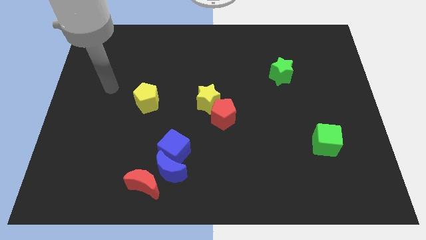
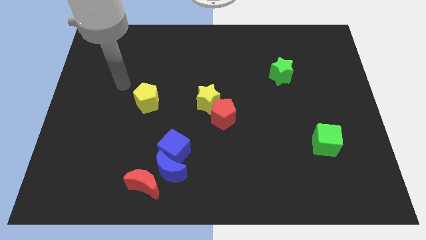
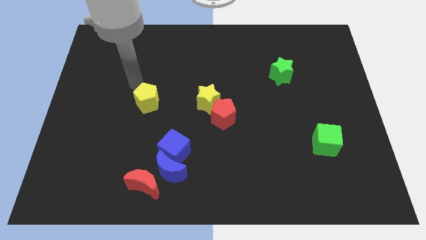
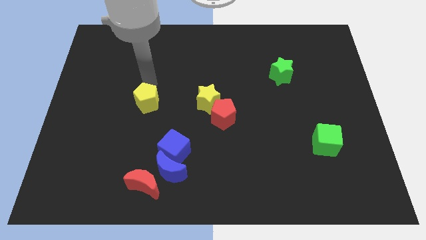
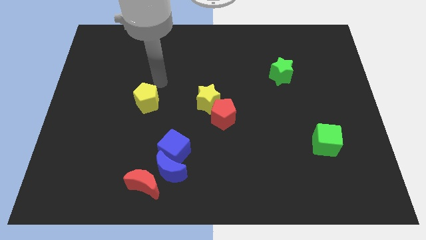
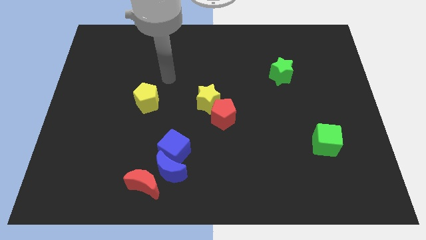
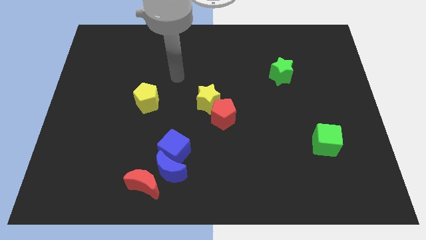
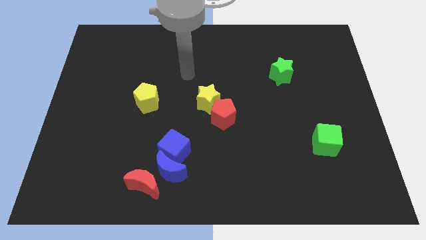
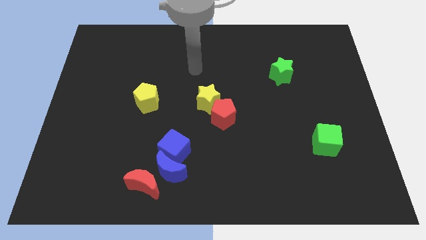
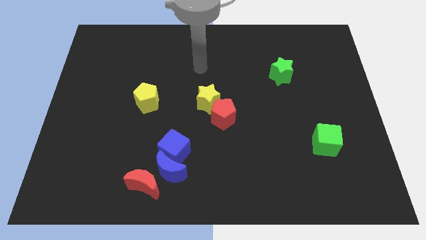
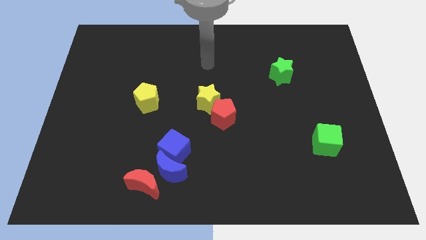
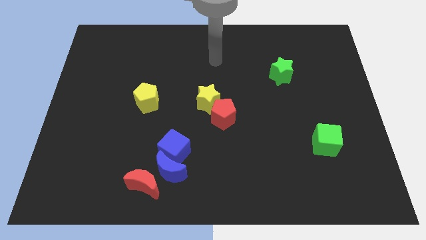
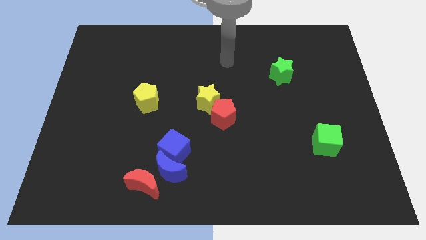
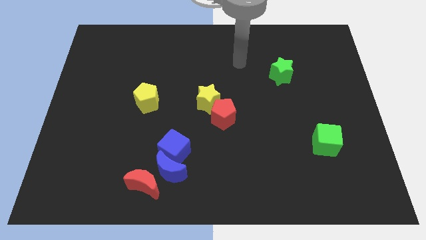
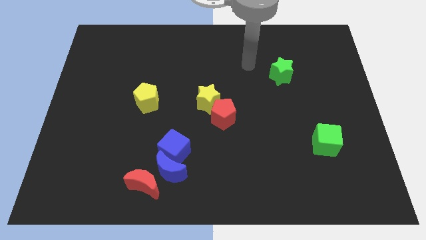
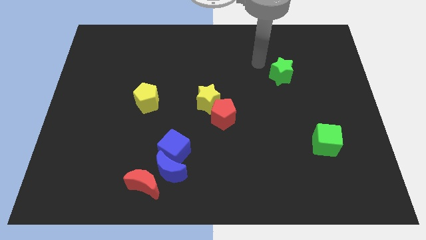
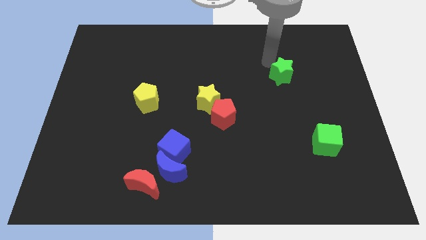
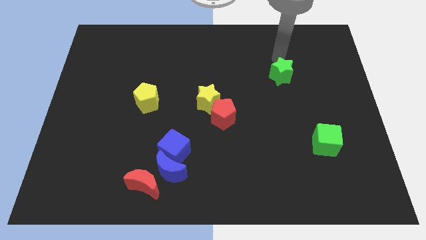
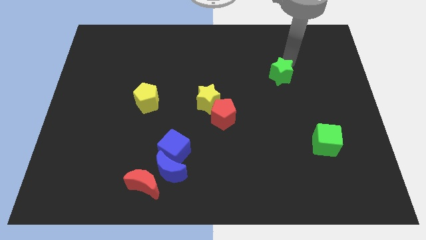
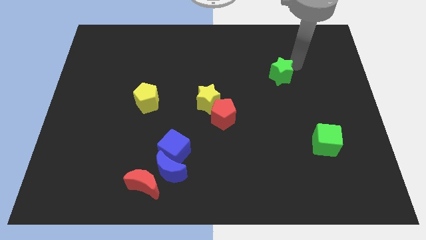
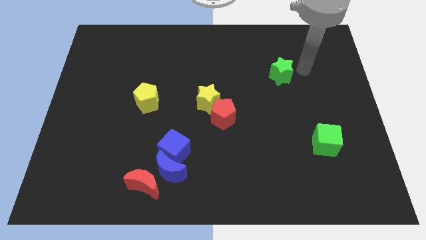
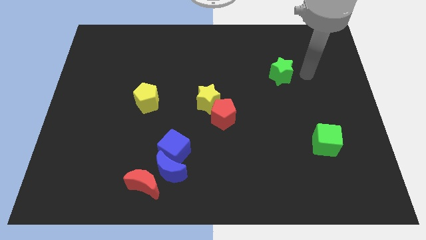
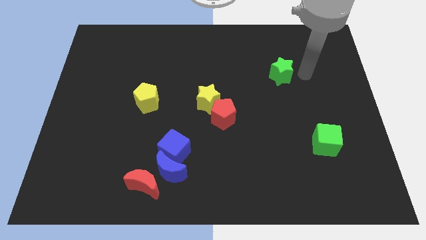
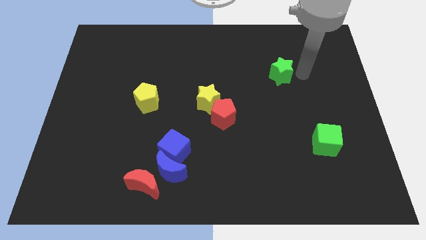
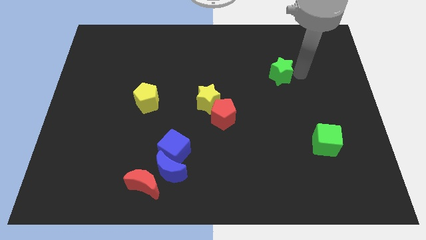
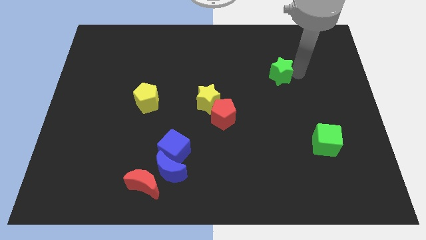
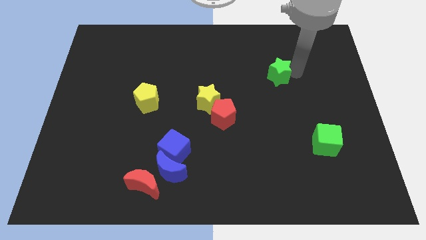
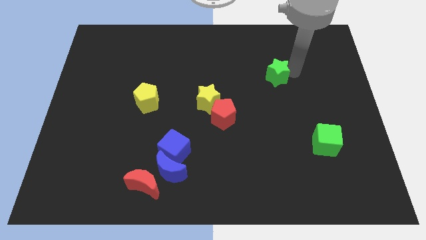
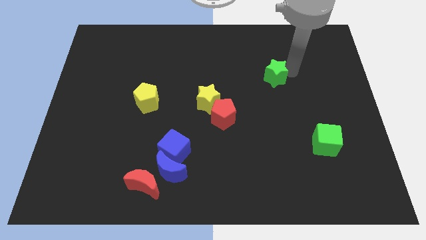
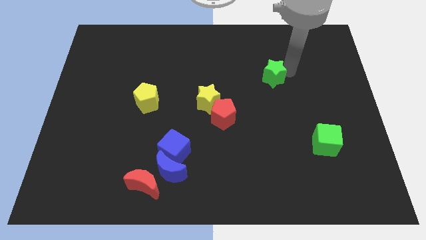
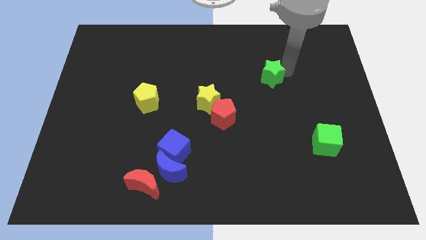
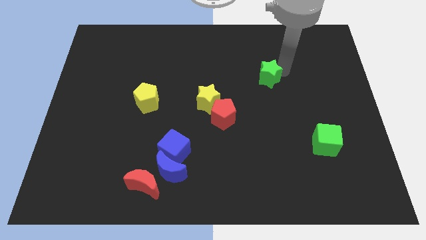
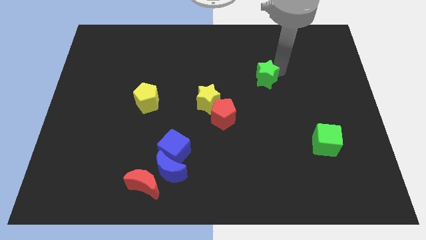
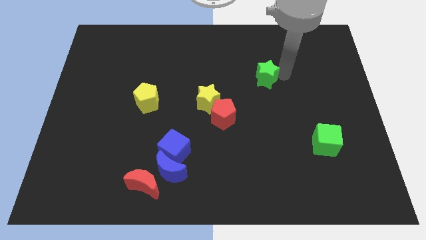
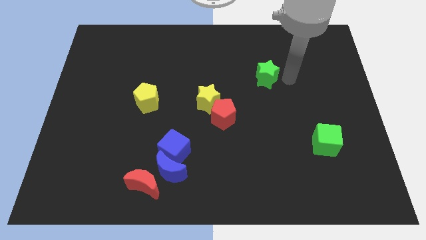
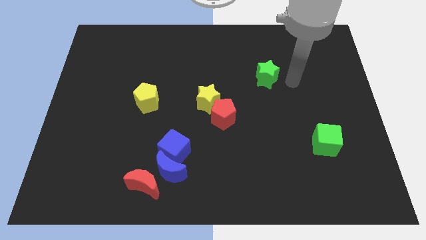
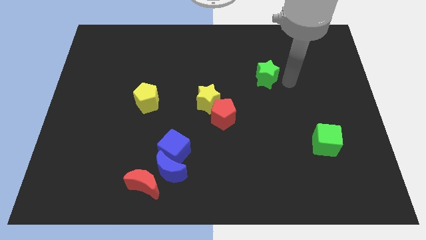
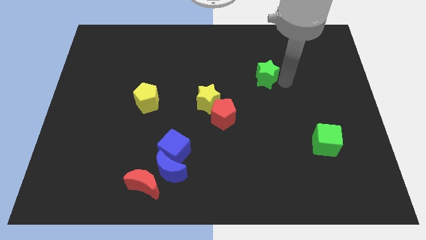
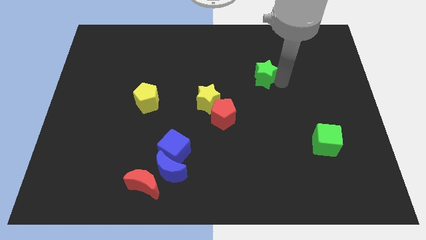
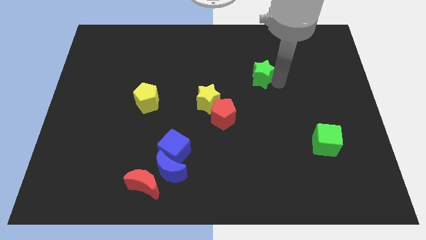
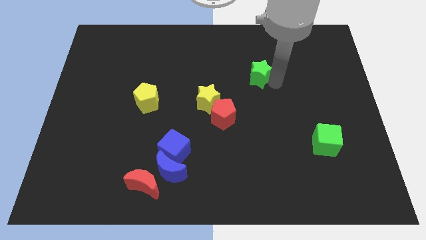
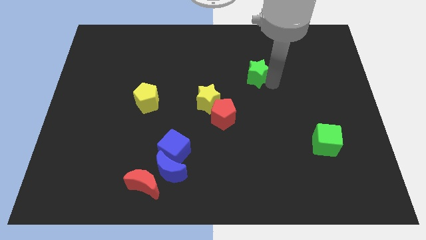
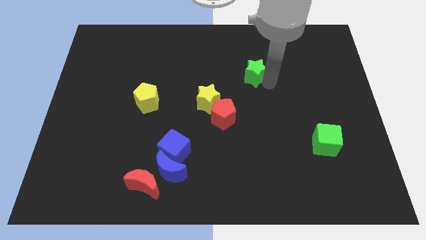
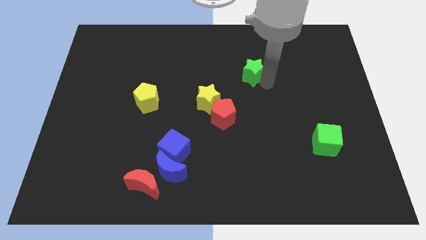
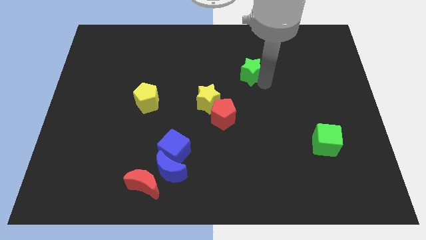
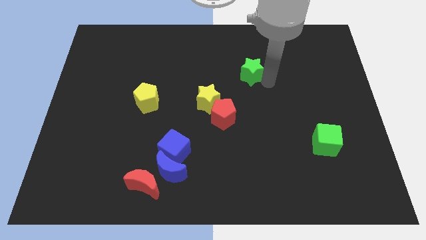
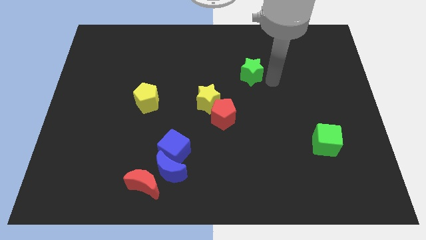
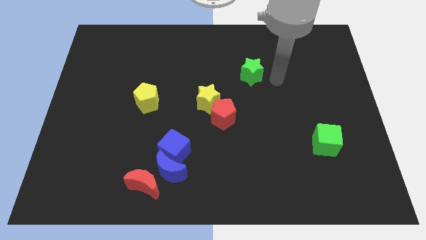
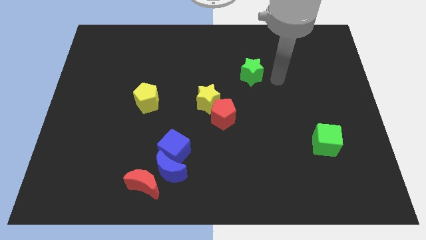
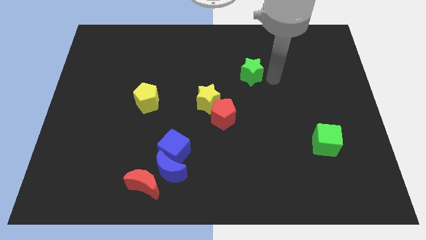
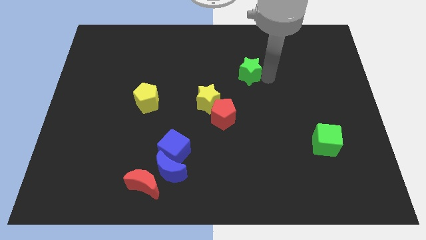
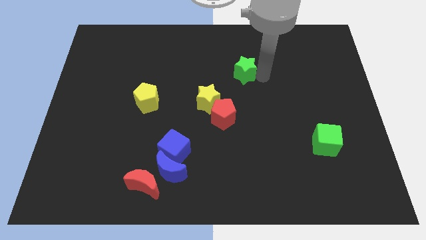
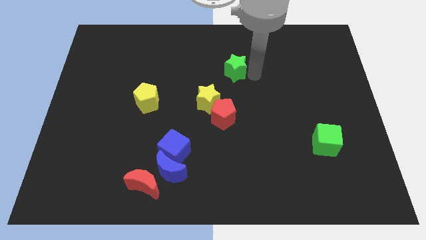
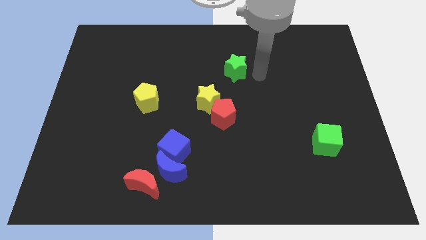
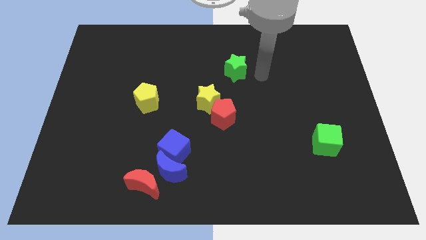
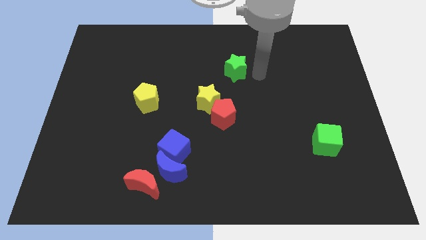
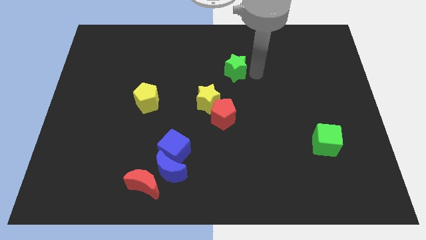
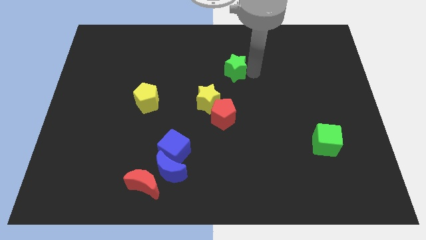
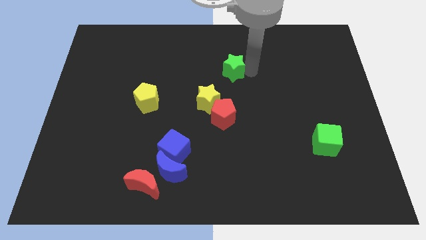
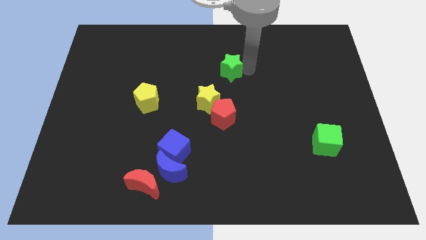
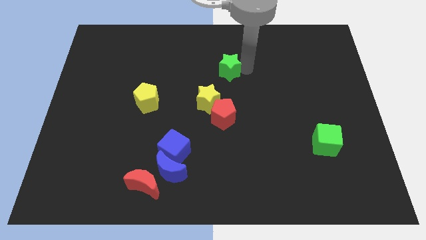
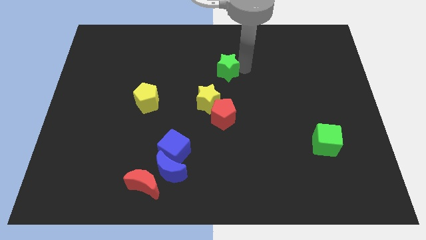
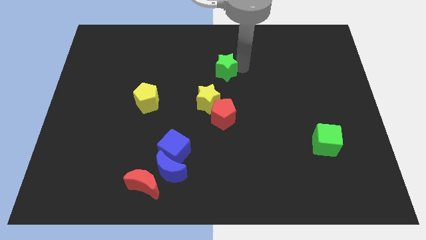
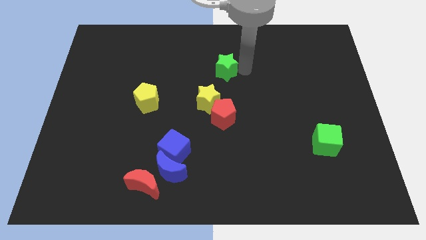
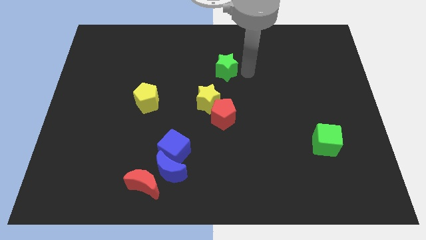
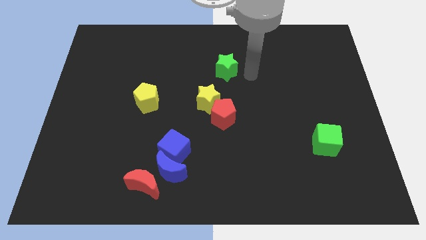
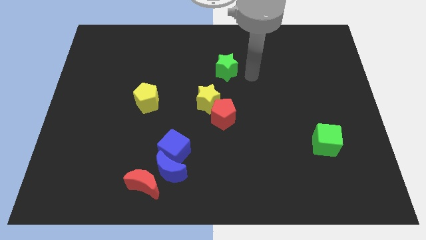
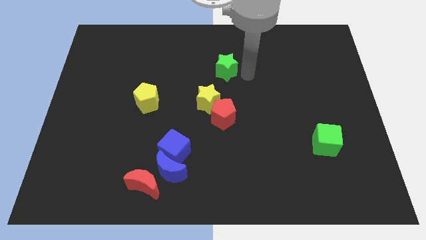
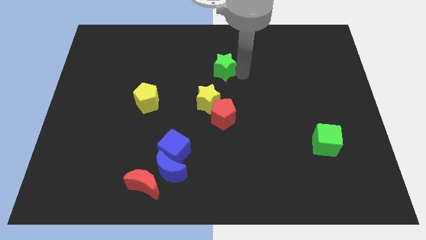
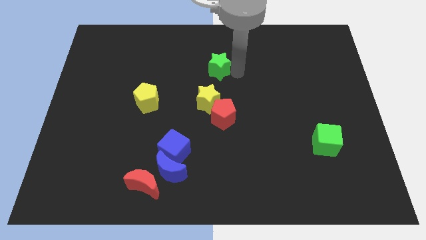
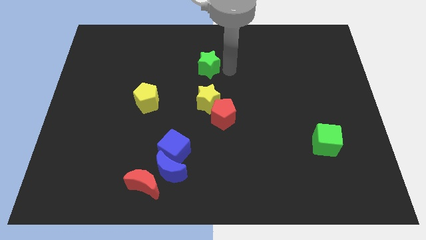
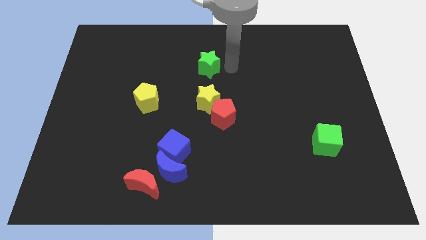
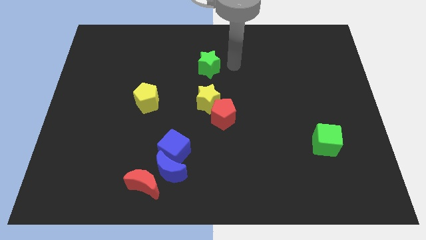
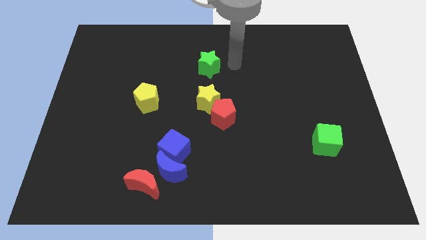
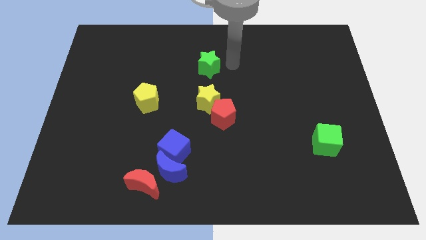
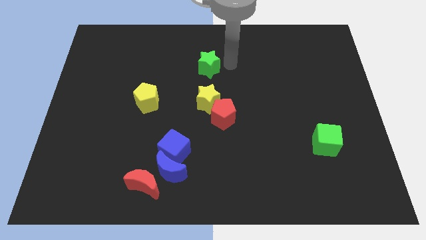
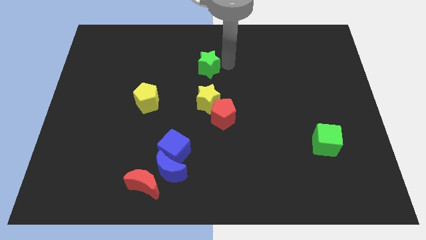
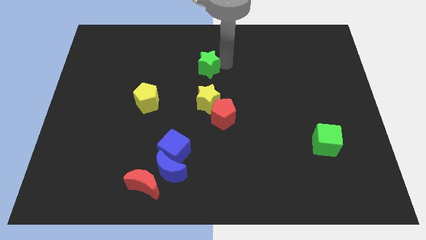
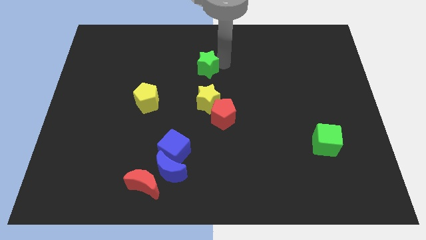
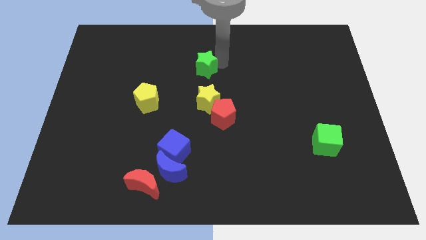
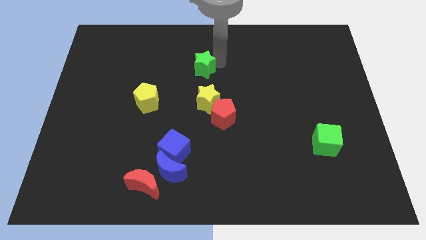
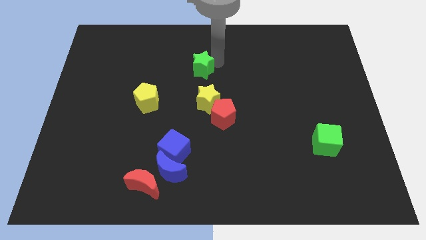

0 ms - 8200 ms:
push the green star to the left
